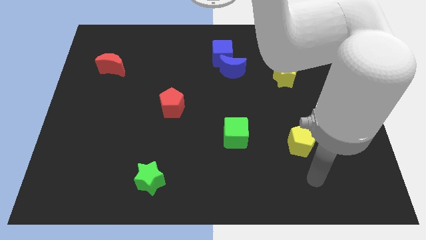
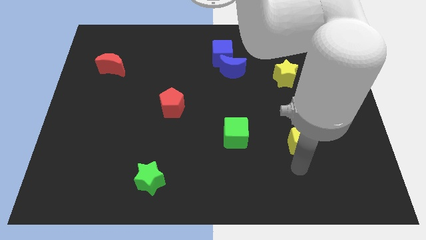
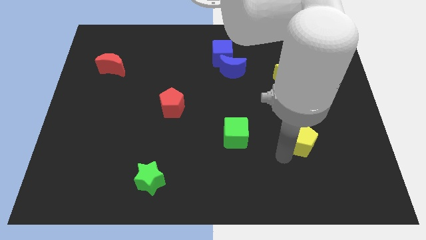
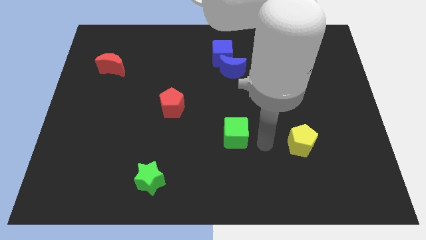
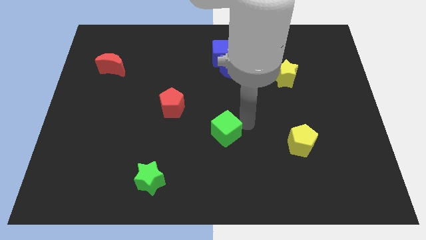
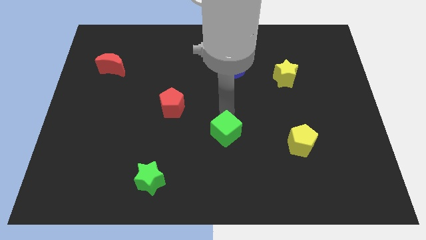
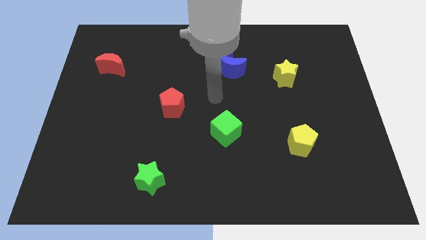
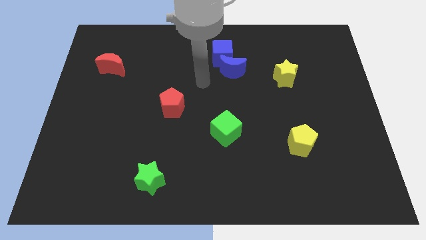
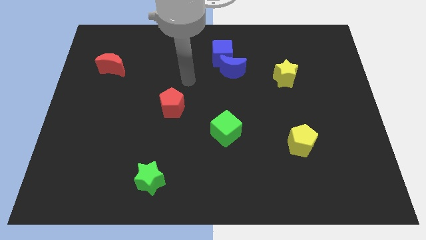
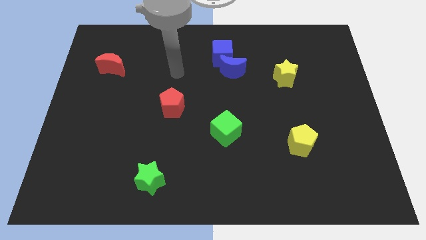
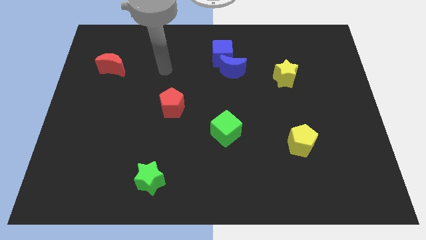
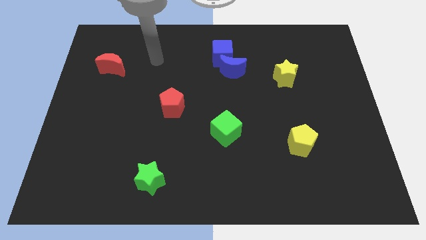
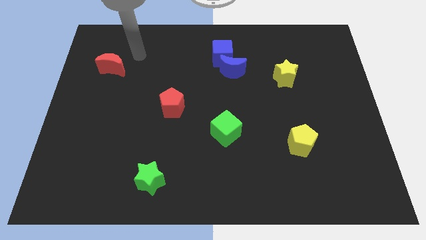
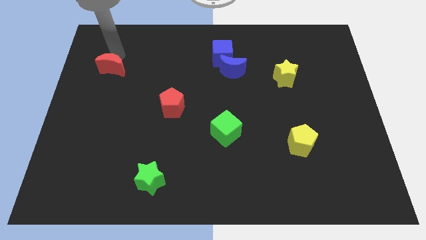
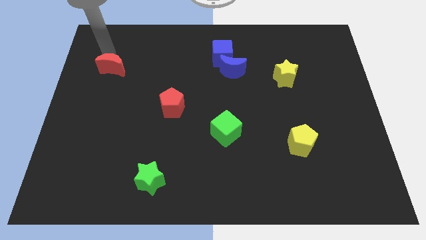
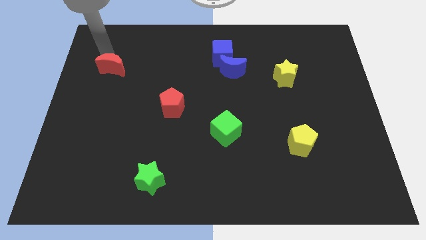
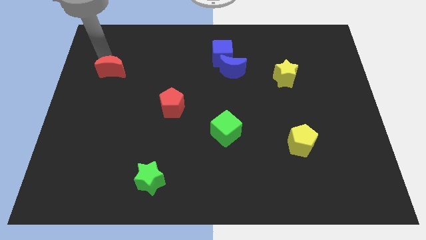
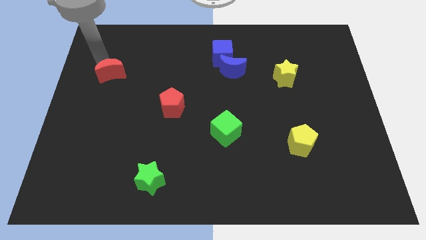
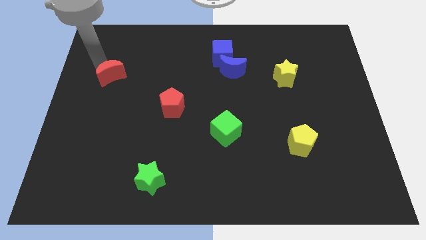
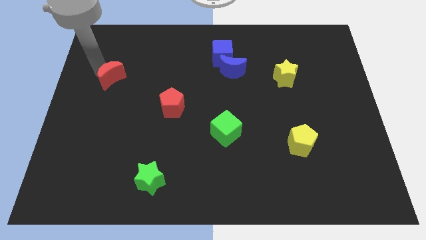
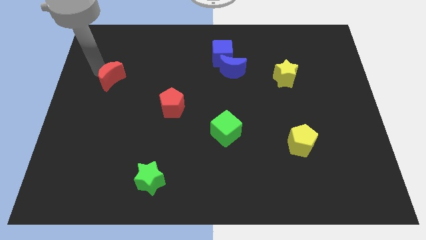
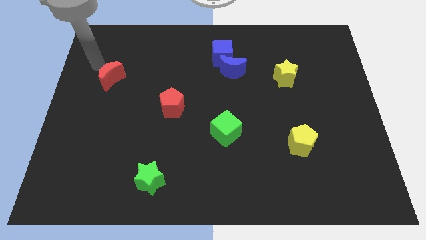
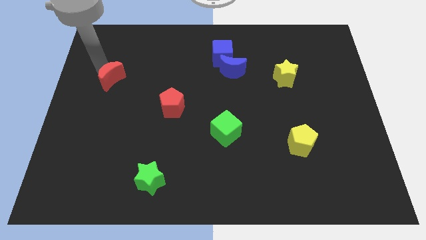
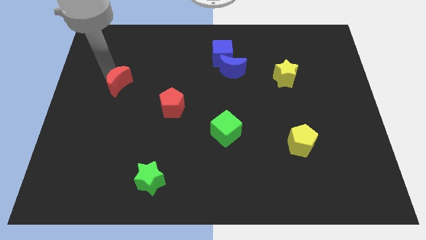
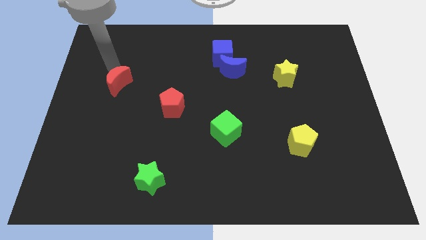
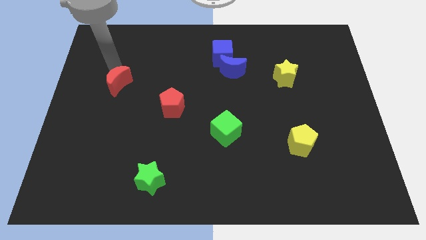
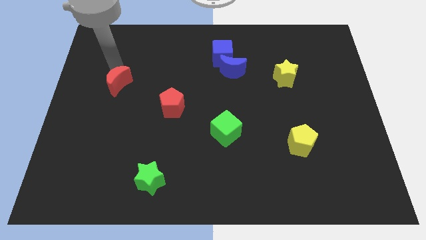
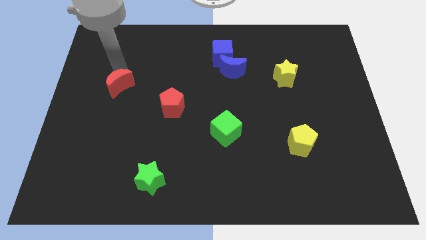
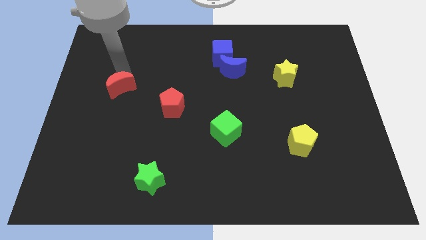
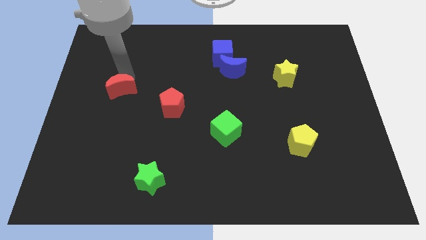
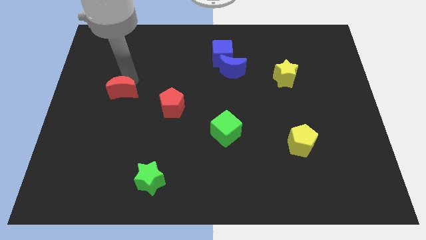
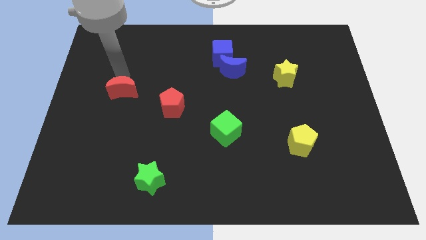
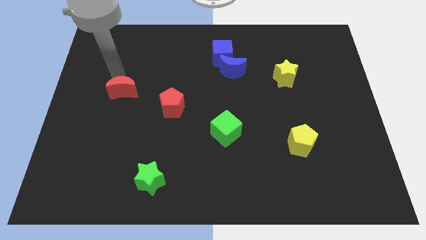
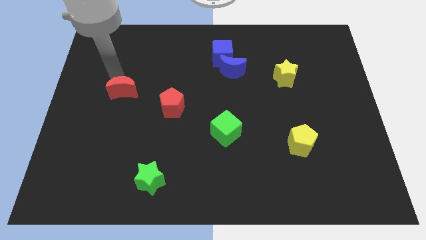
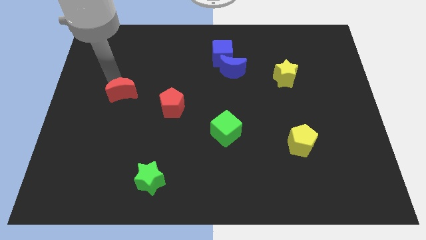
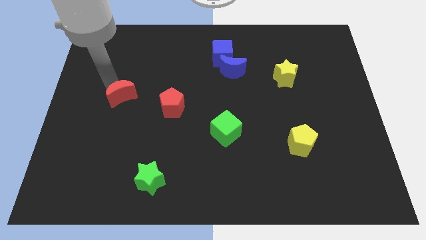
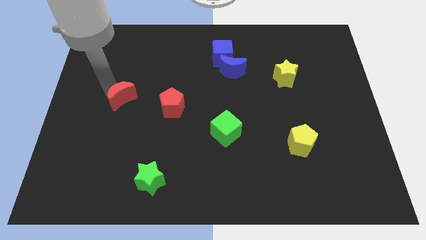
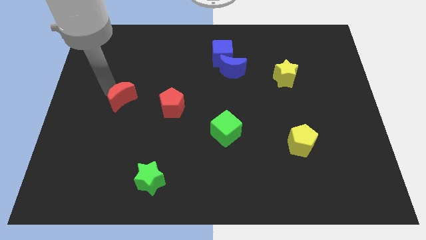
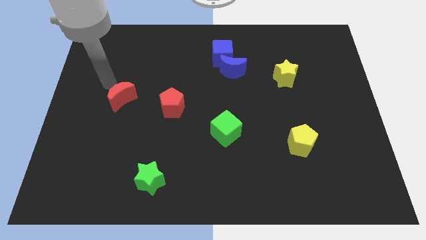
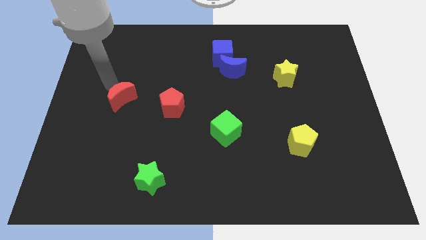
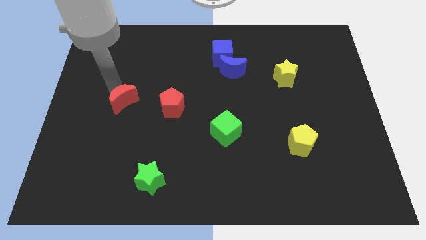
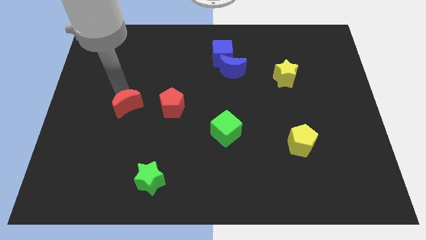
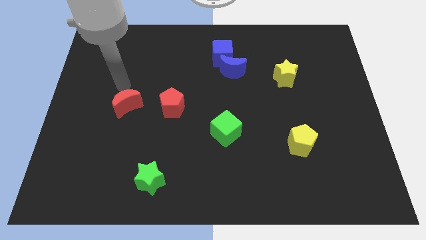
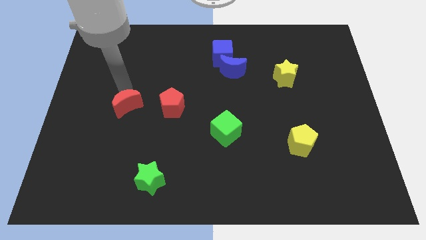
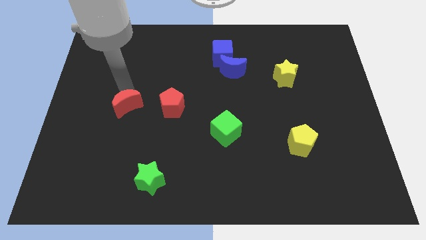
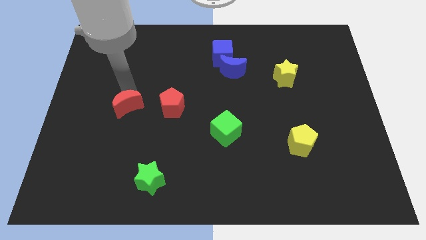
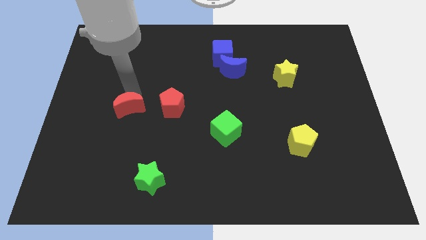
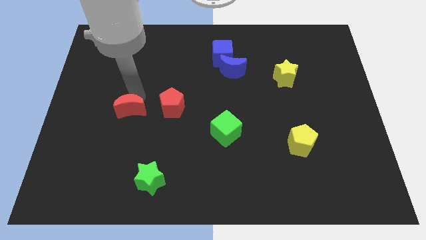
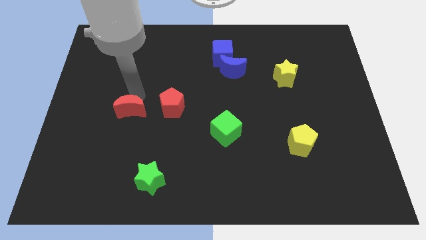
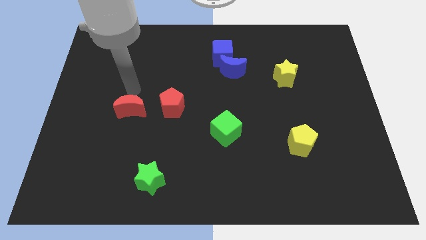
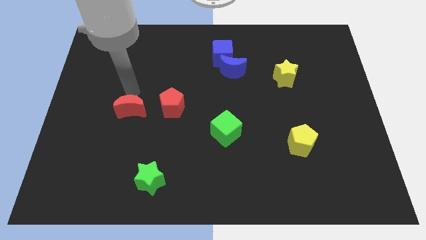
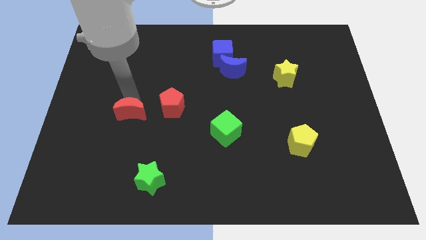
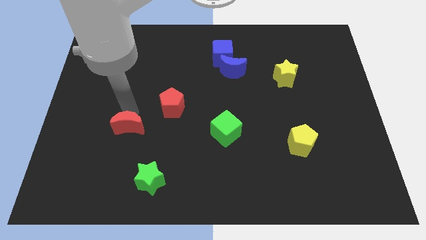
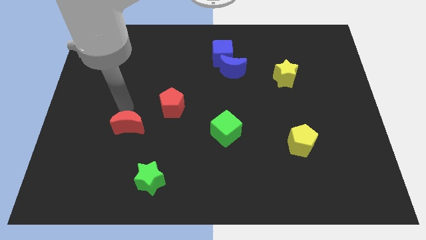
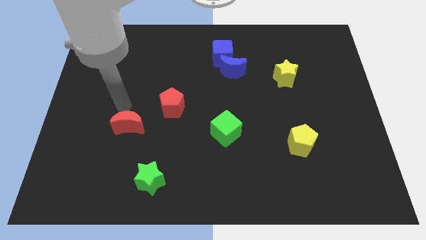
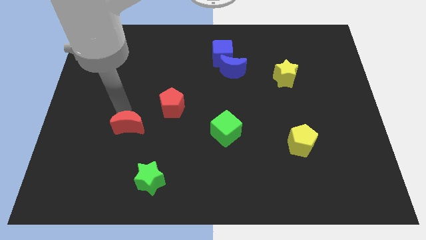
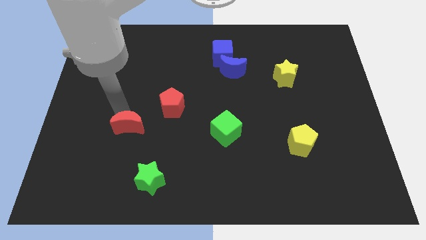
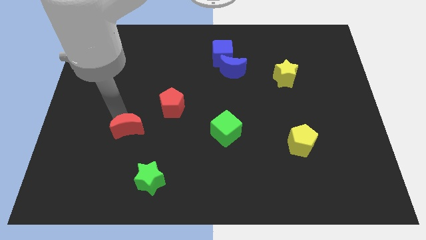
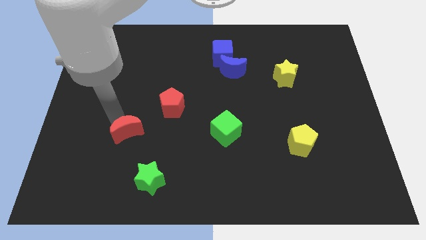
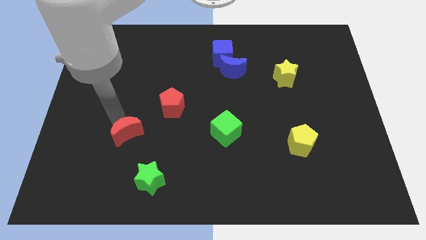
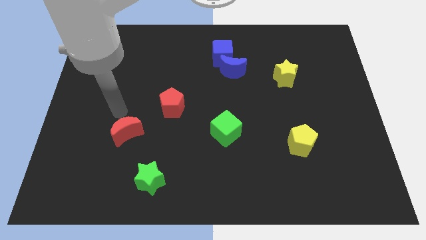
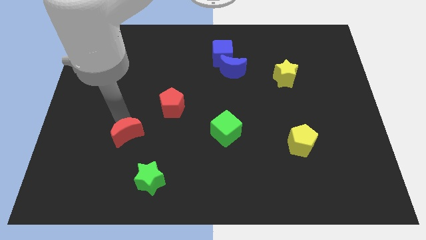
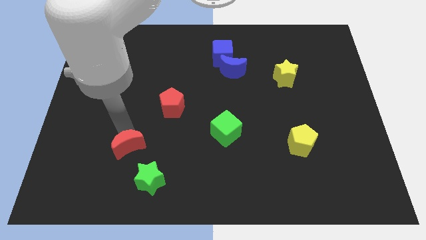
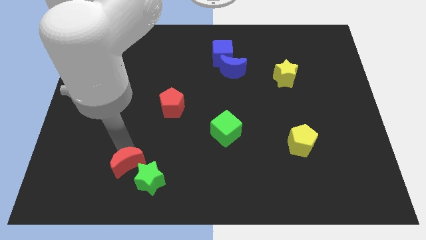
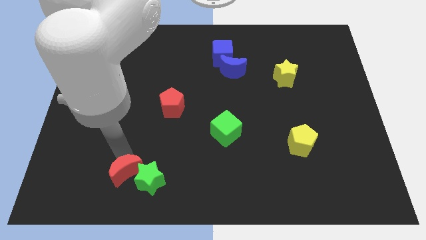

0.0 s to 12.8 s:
push the red moon towards the green star
